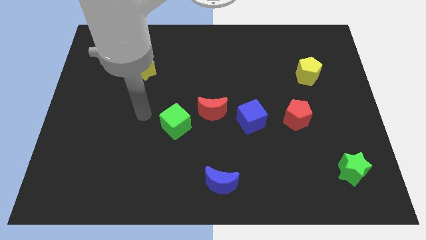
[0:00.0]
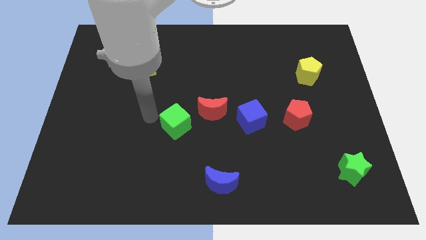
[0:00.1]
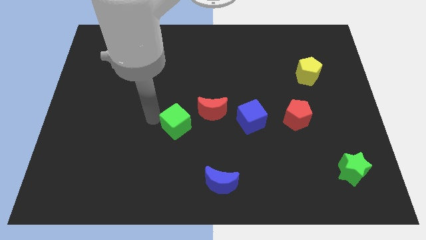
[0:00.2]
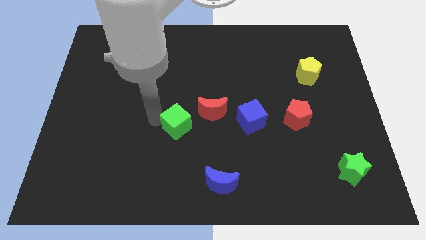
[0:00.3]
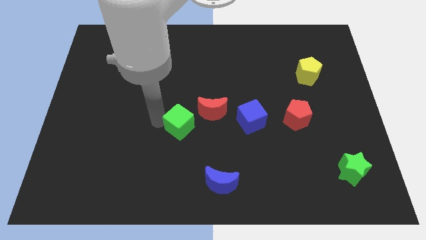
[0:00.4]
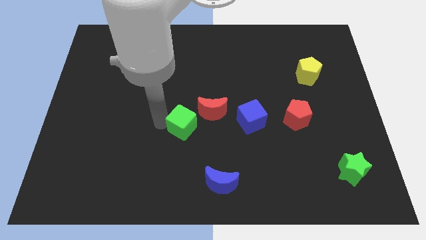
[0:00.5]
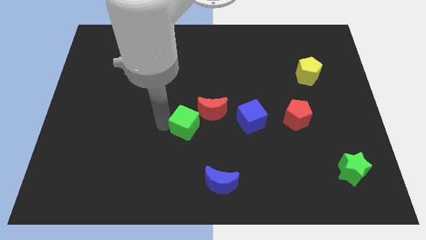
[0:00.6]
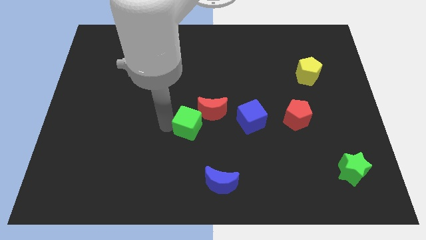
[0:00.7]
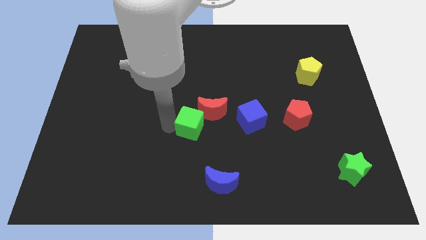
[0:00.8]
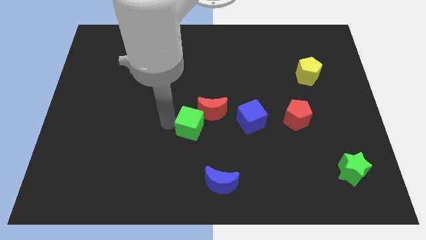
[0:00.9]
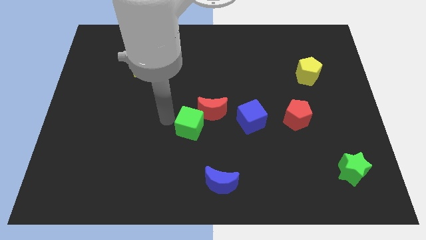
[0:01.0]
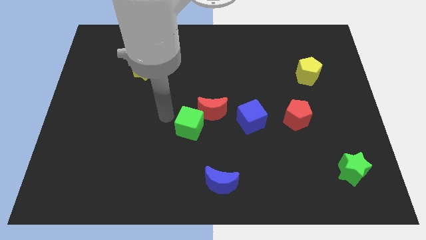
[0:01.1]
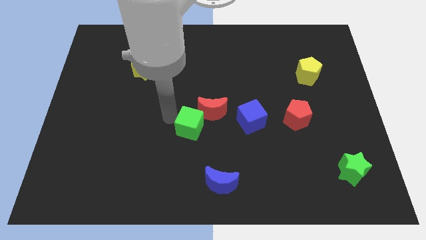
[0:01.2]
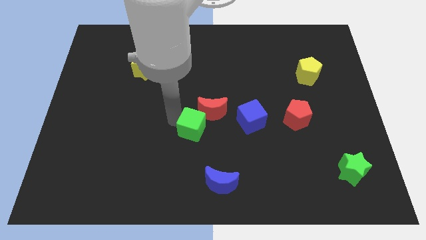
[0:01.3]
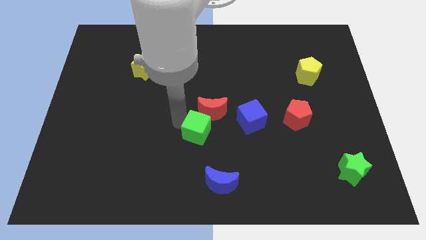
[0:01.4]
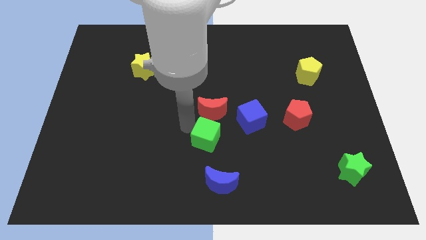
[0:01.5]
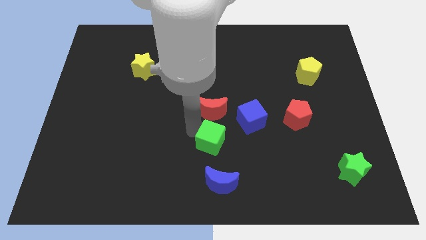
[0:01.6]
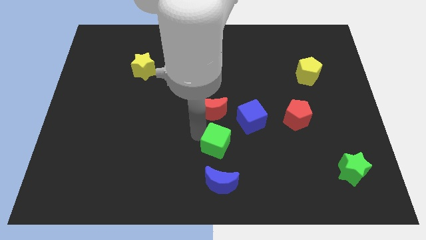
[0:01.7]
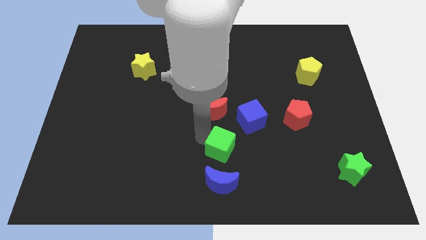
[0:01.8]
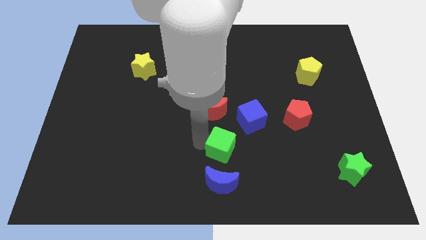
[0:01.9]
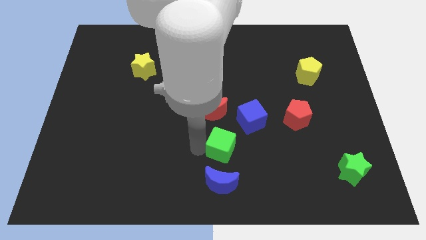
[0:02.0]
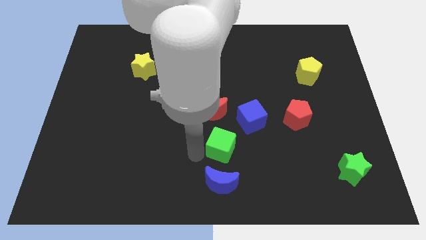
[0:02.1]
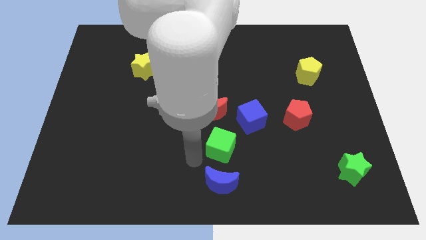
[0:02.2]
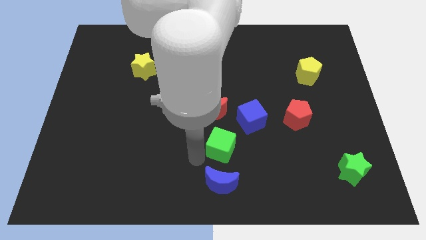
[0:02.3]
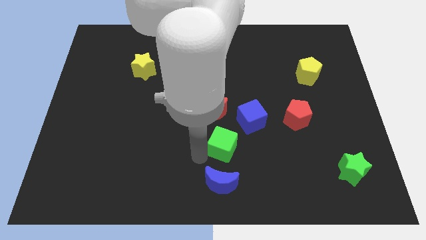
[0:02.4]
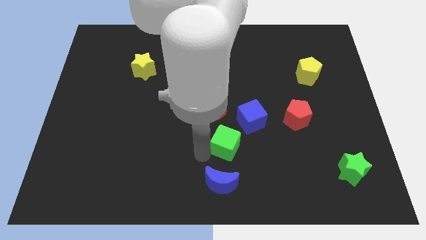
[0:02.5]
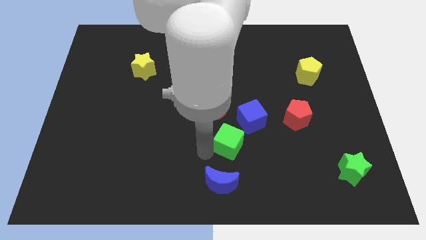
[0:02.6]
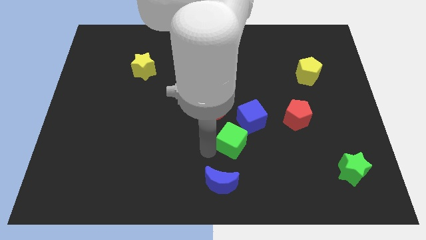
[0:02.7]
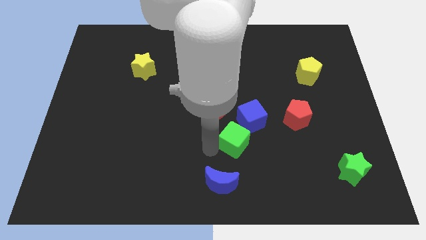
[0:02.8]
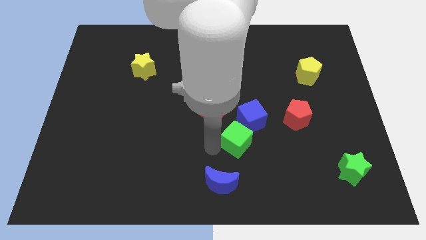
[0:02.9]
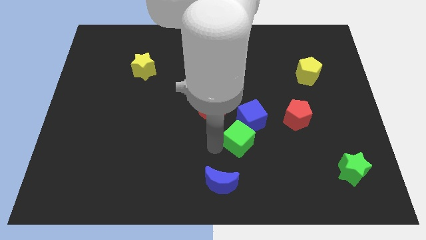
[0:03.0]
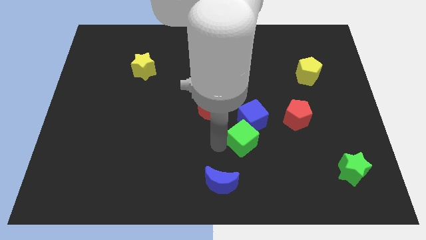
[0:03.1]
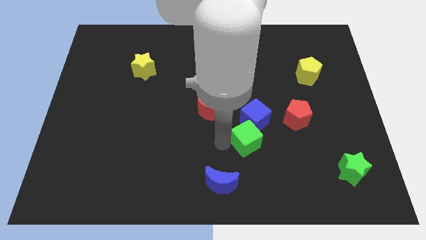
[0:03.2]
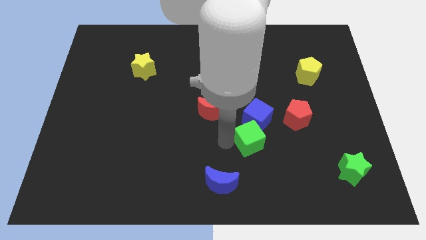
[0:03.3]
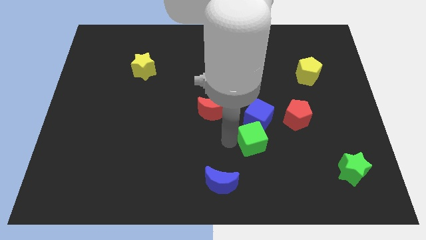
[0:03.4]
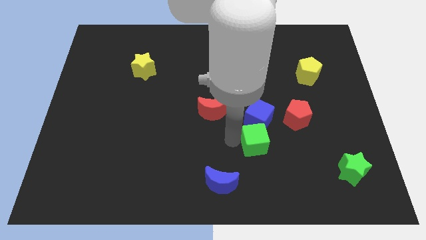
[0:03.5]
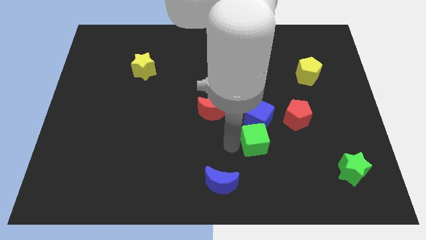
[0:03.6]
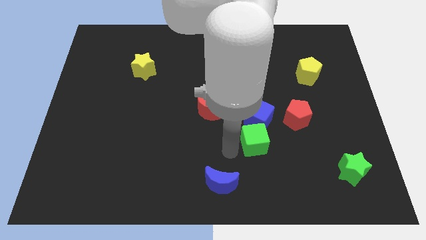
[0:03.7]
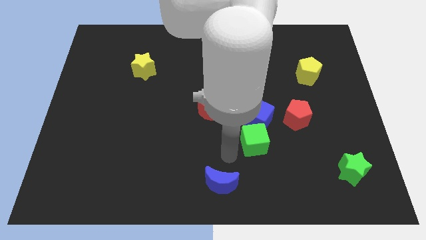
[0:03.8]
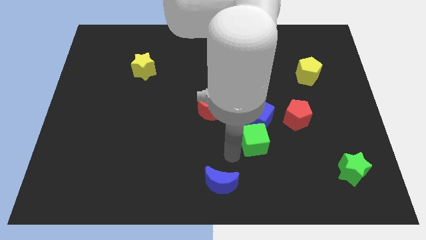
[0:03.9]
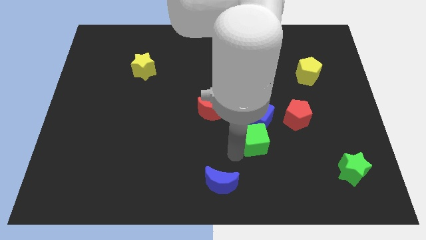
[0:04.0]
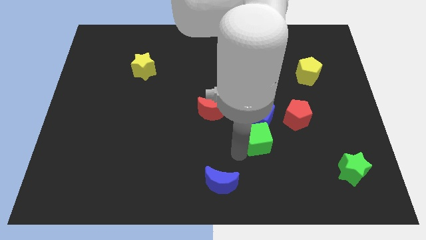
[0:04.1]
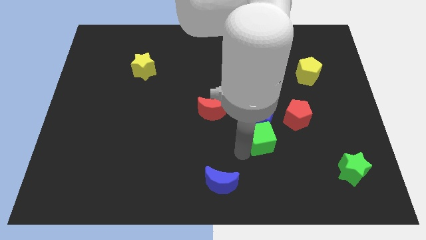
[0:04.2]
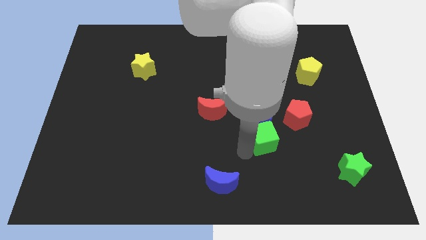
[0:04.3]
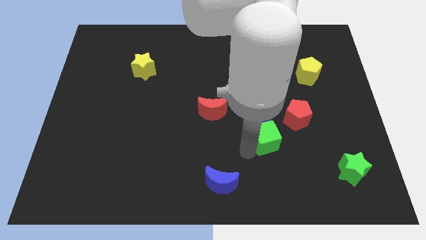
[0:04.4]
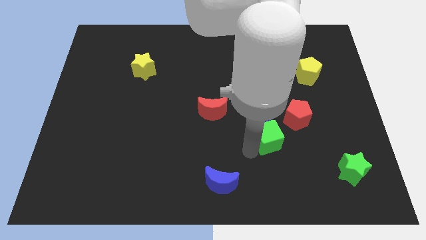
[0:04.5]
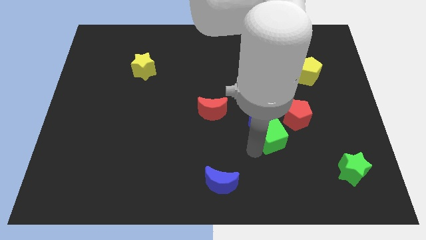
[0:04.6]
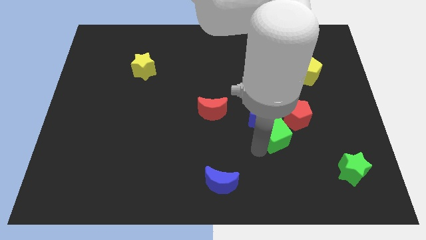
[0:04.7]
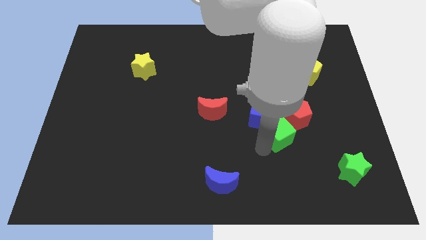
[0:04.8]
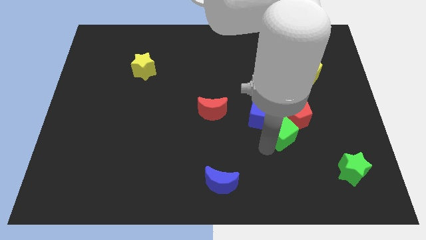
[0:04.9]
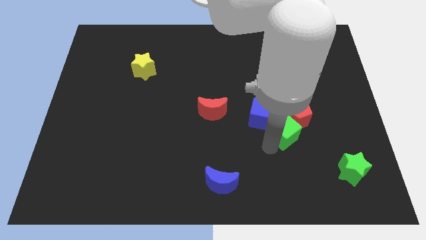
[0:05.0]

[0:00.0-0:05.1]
put the green cube to the red pentagon

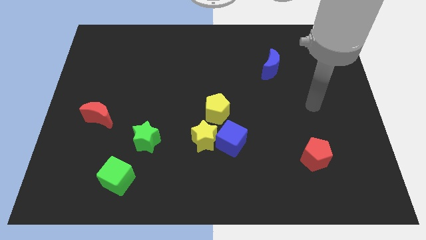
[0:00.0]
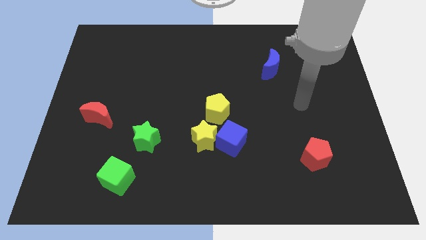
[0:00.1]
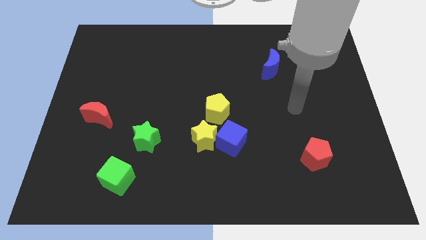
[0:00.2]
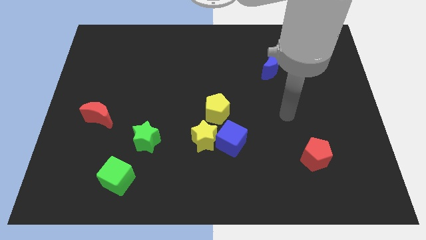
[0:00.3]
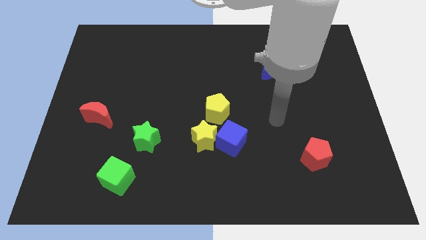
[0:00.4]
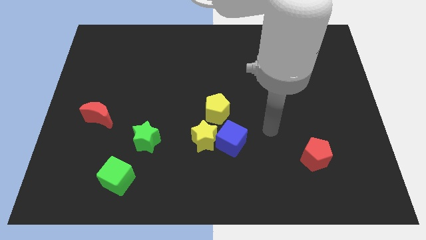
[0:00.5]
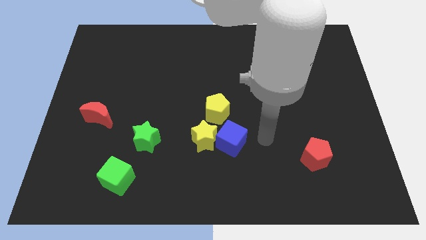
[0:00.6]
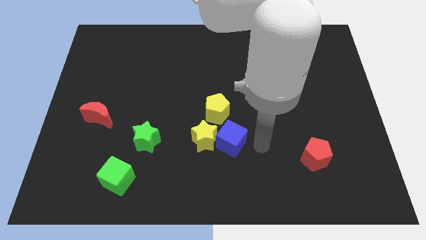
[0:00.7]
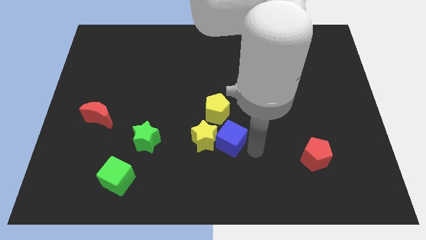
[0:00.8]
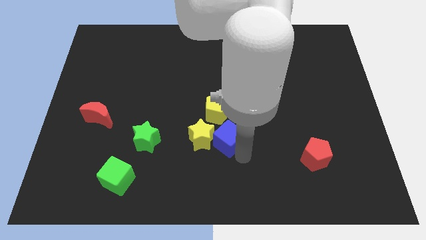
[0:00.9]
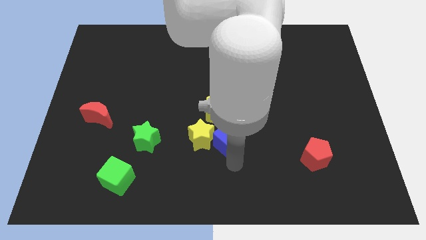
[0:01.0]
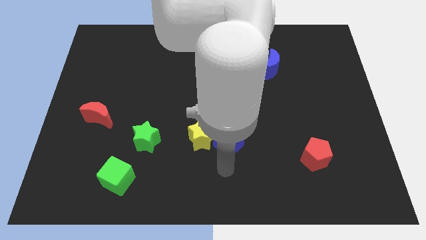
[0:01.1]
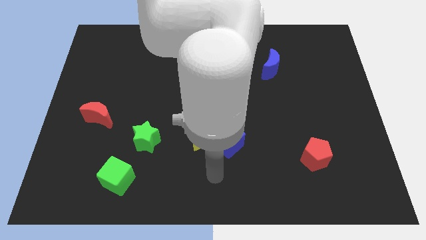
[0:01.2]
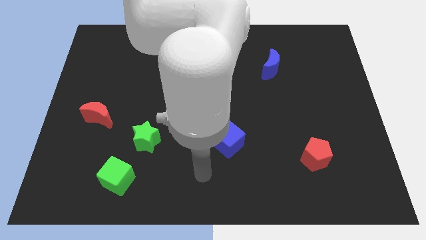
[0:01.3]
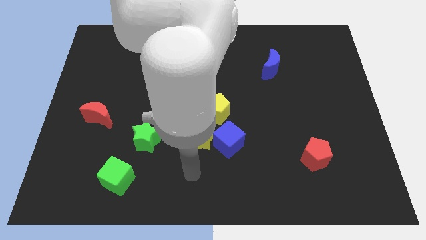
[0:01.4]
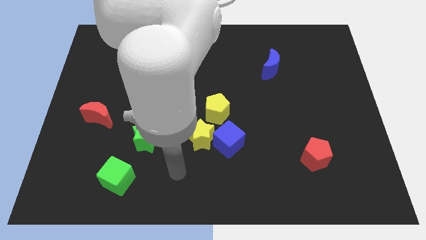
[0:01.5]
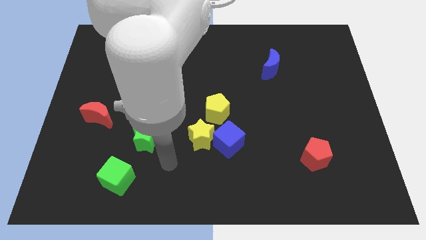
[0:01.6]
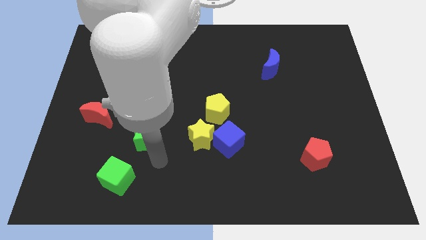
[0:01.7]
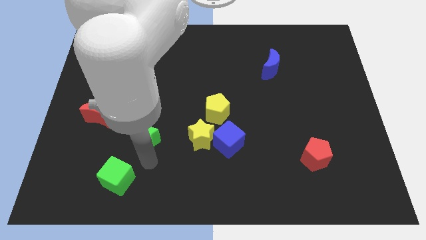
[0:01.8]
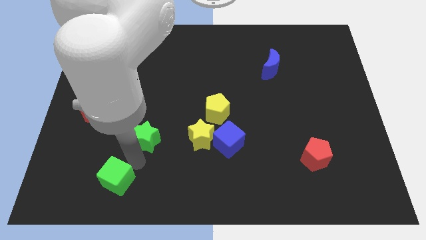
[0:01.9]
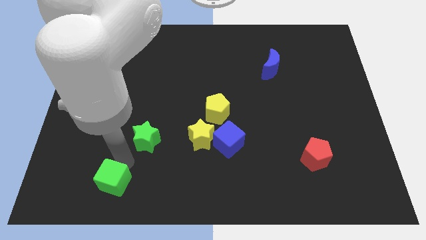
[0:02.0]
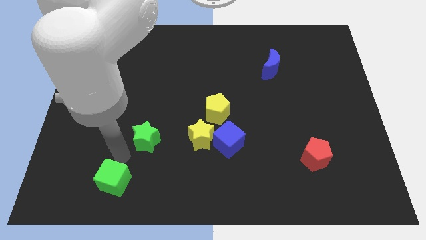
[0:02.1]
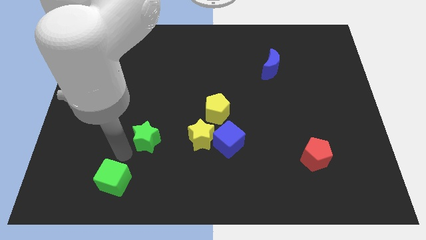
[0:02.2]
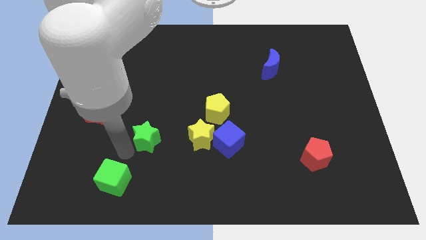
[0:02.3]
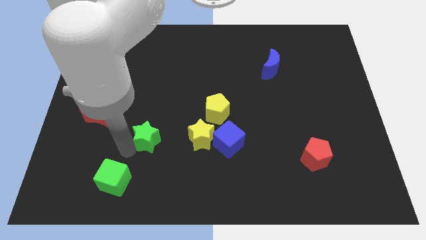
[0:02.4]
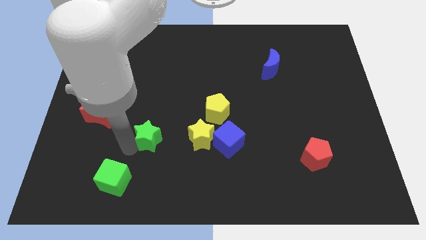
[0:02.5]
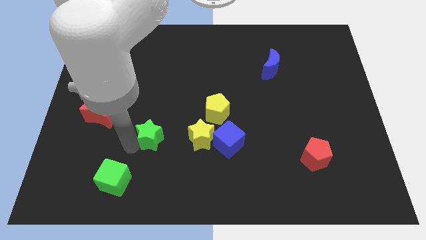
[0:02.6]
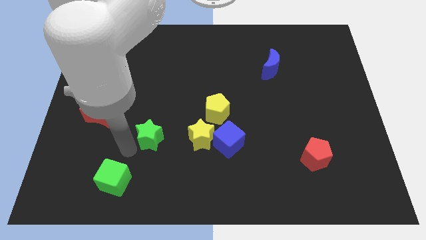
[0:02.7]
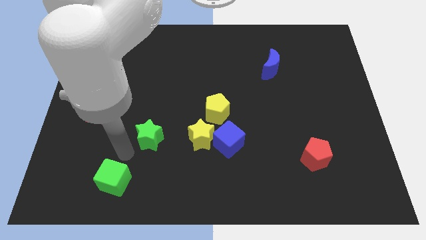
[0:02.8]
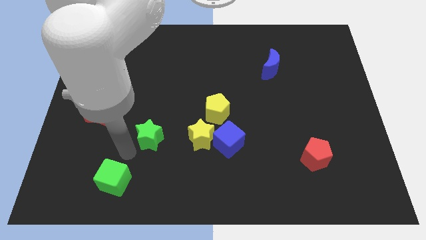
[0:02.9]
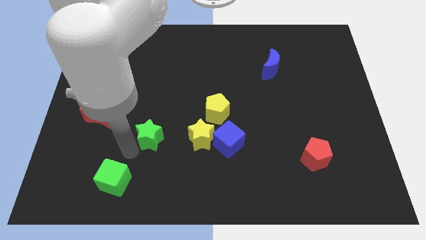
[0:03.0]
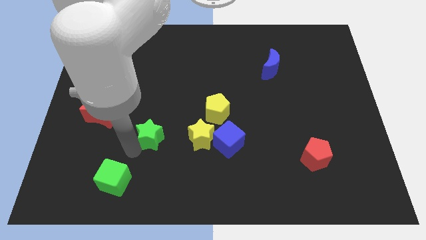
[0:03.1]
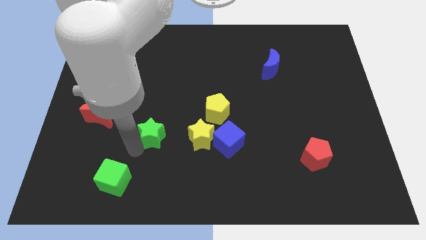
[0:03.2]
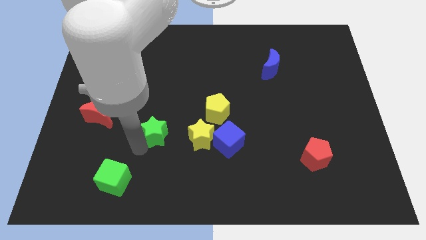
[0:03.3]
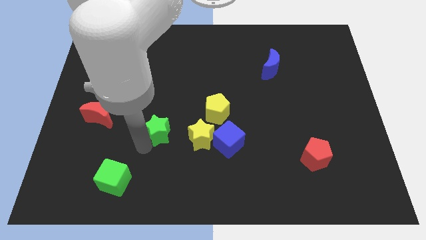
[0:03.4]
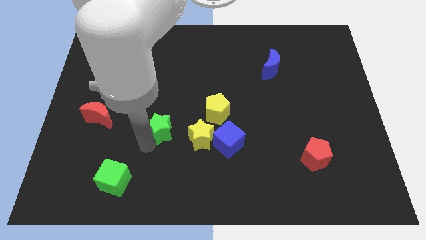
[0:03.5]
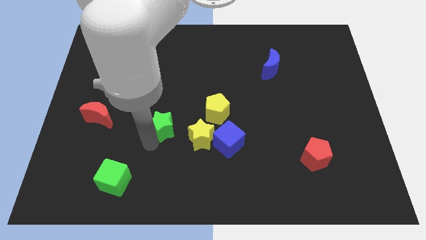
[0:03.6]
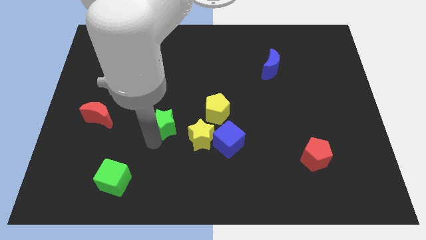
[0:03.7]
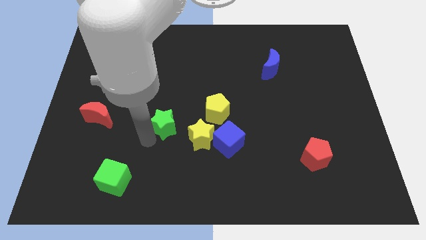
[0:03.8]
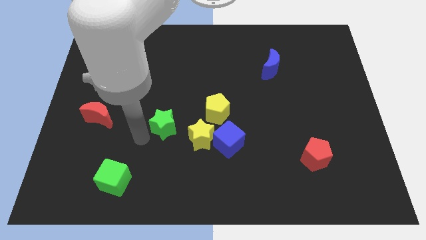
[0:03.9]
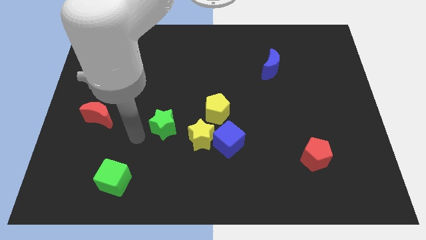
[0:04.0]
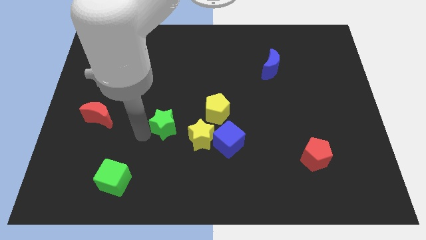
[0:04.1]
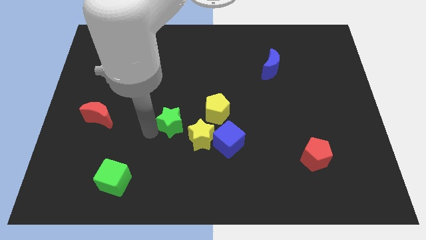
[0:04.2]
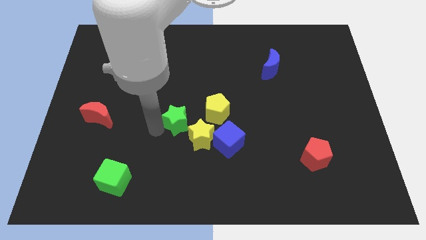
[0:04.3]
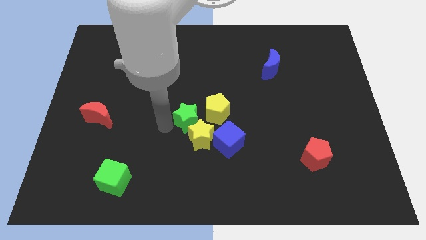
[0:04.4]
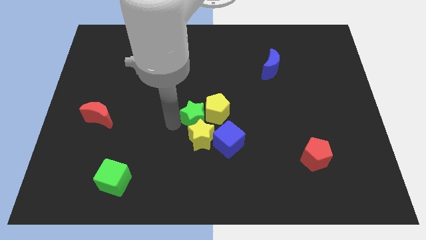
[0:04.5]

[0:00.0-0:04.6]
push the green star close to the yellow pentagon
